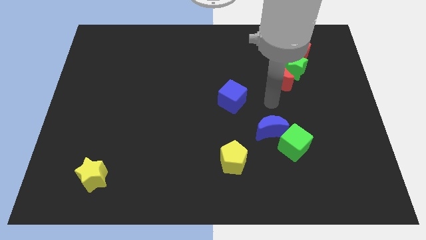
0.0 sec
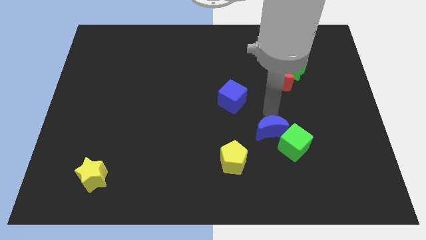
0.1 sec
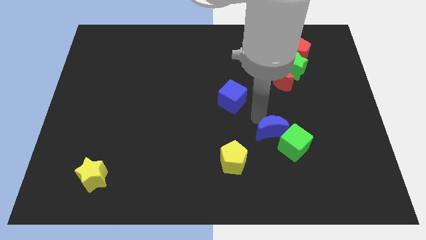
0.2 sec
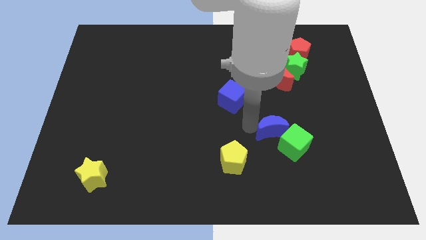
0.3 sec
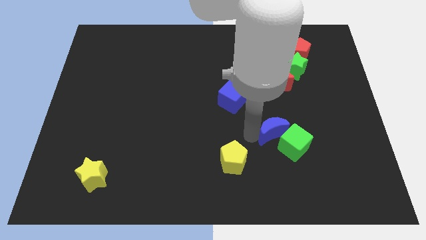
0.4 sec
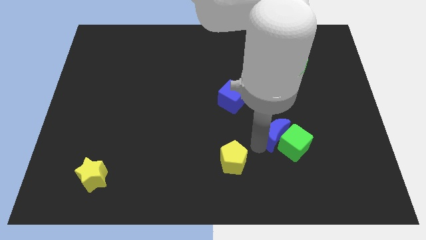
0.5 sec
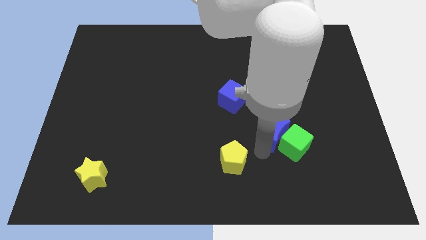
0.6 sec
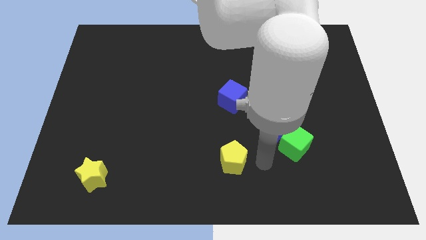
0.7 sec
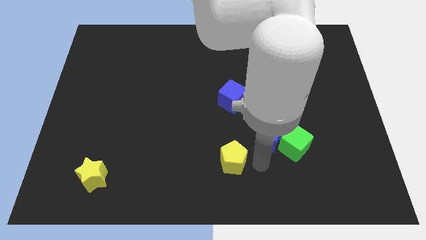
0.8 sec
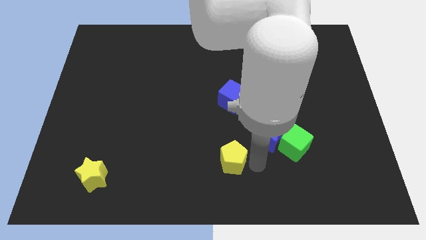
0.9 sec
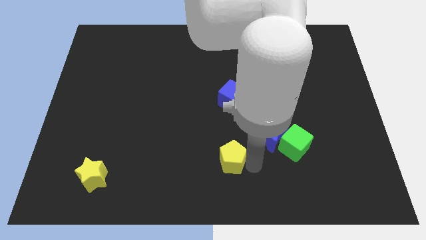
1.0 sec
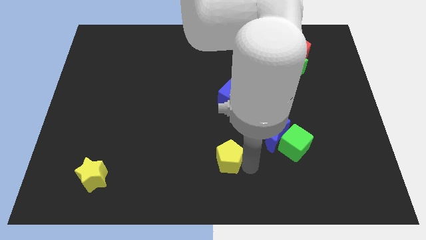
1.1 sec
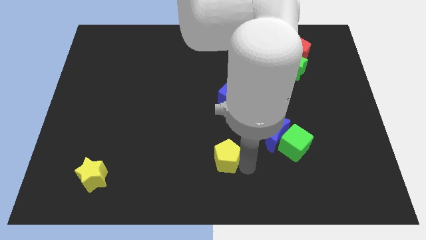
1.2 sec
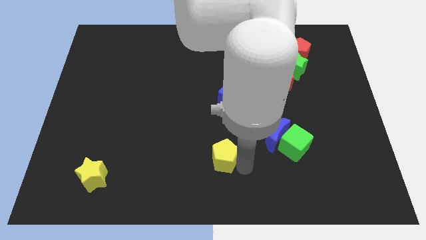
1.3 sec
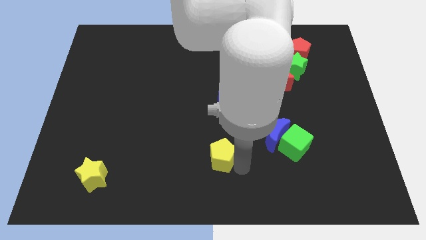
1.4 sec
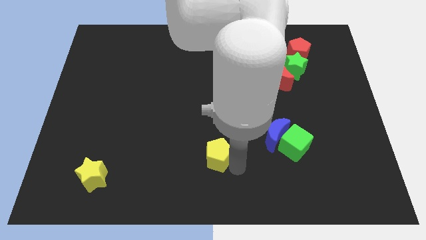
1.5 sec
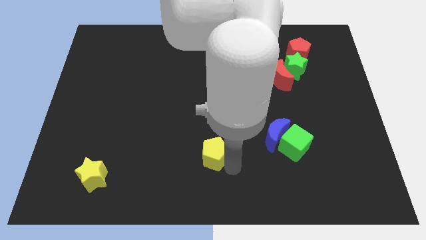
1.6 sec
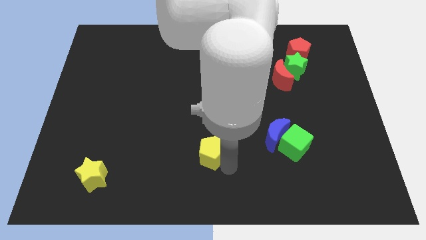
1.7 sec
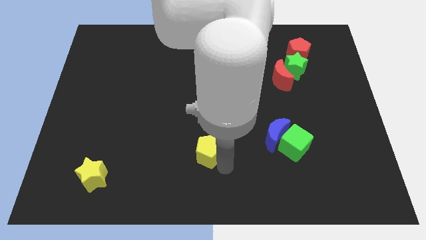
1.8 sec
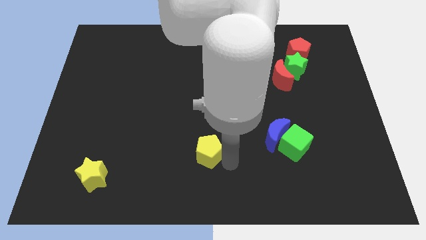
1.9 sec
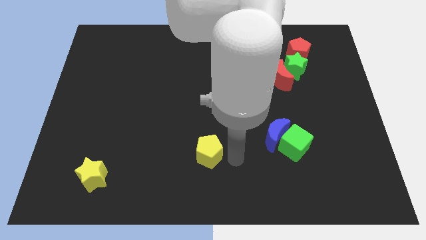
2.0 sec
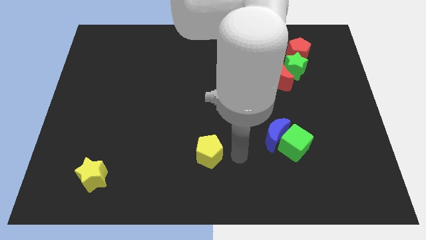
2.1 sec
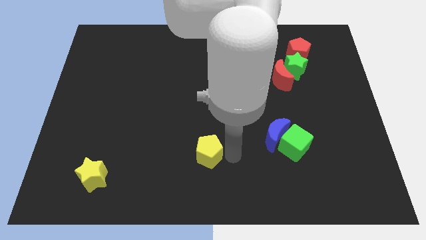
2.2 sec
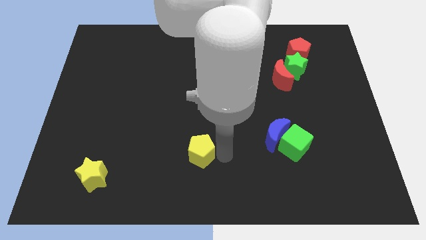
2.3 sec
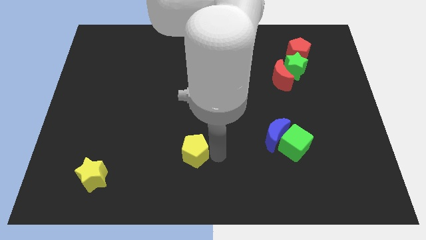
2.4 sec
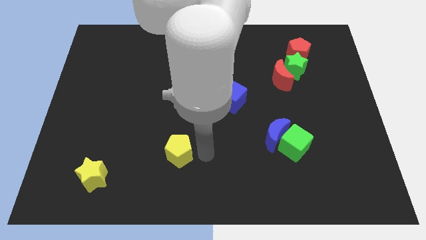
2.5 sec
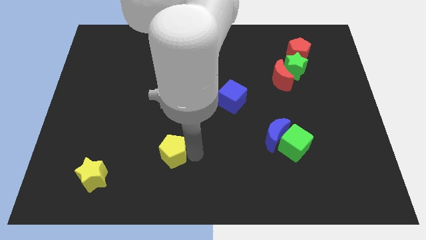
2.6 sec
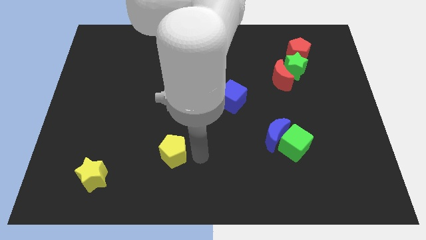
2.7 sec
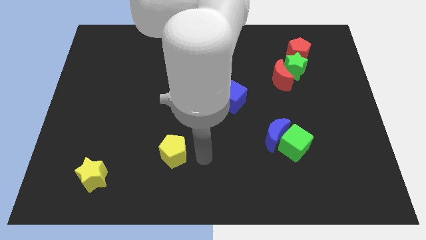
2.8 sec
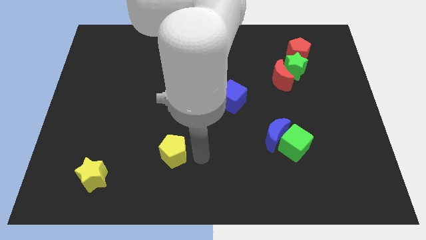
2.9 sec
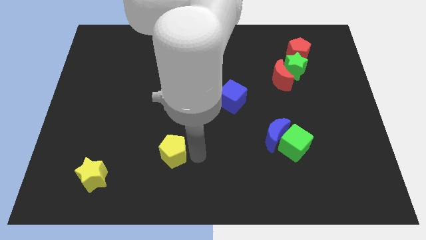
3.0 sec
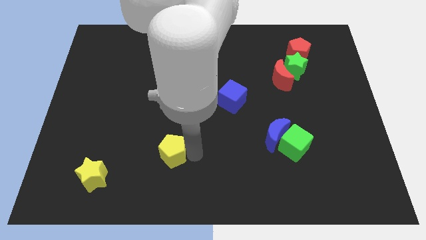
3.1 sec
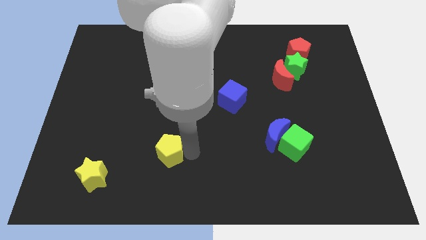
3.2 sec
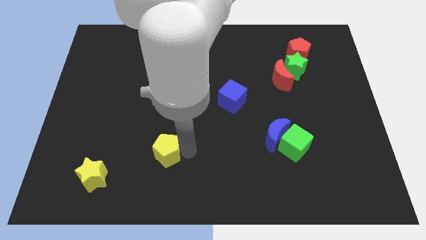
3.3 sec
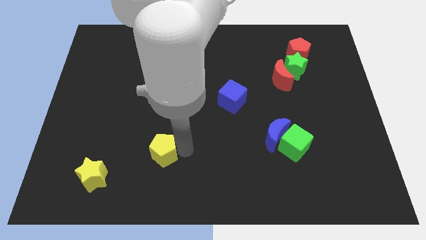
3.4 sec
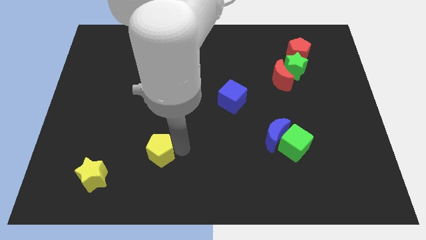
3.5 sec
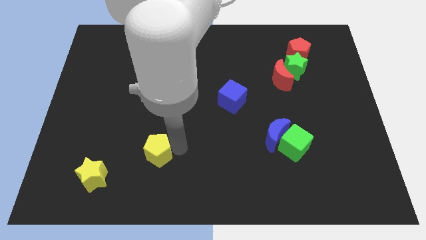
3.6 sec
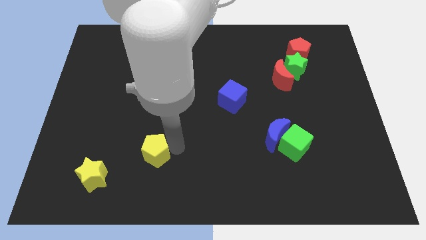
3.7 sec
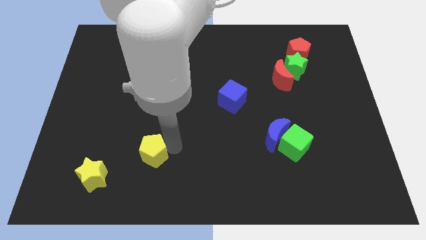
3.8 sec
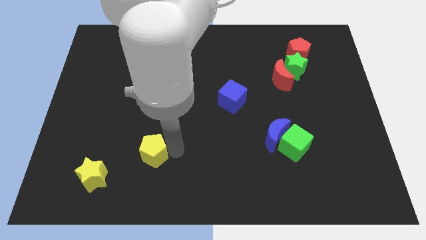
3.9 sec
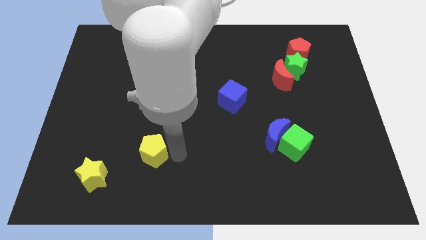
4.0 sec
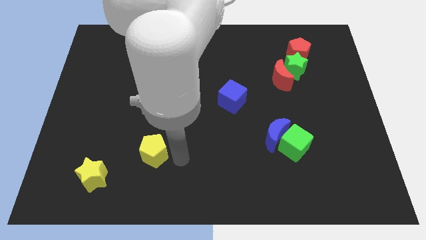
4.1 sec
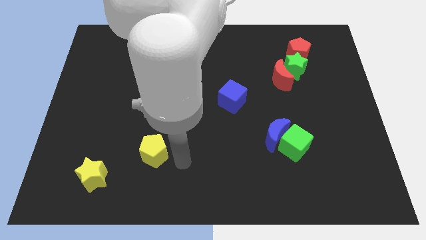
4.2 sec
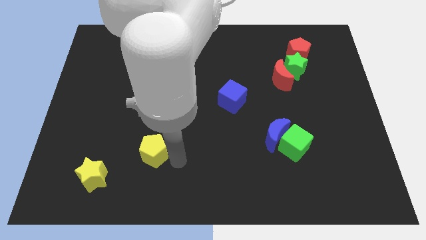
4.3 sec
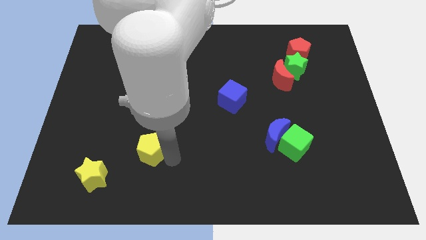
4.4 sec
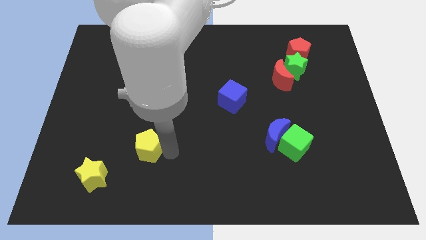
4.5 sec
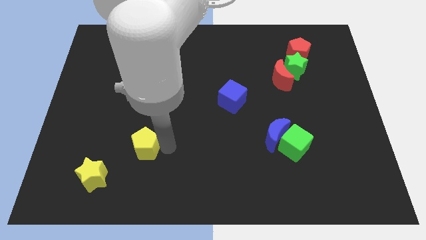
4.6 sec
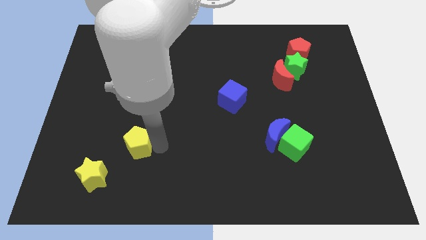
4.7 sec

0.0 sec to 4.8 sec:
slide the yellow pentagon left

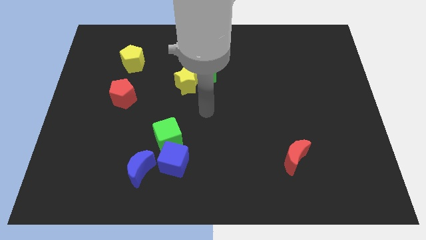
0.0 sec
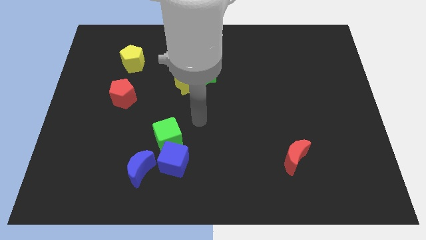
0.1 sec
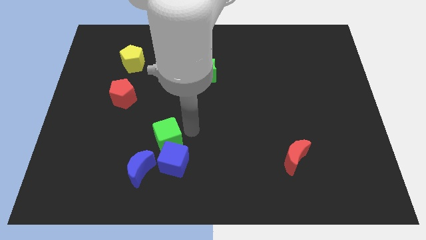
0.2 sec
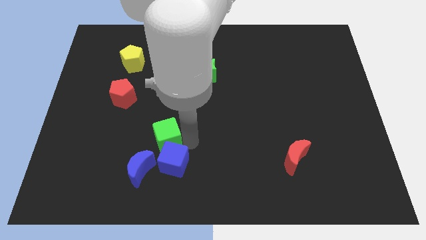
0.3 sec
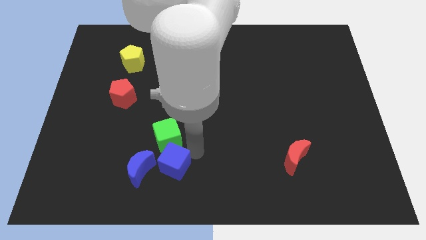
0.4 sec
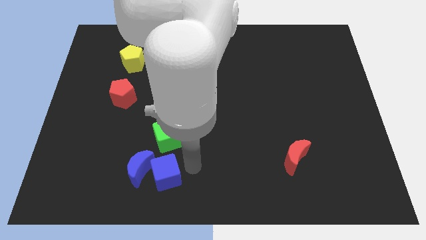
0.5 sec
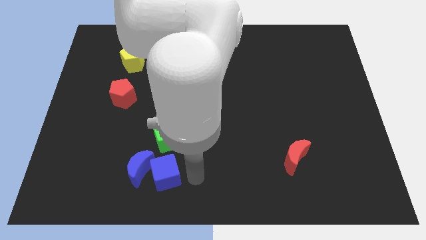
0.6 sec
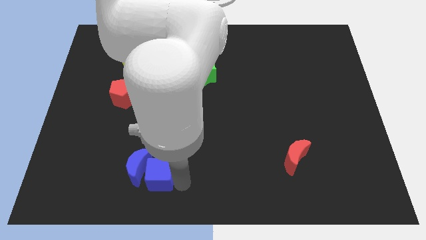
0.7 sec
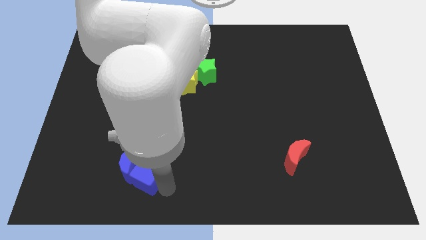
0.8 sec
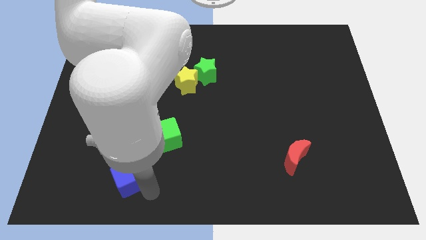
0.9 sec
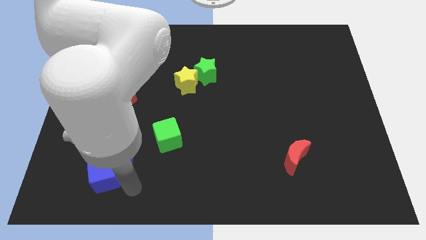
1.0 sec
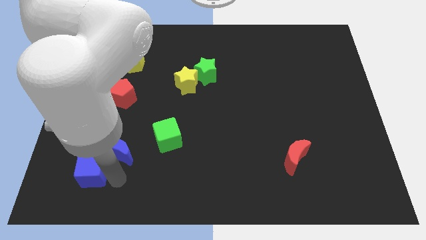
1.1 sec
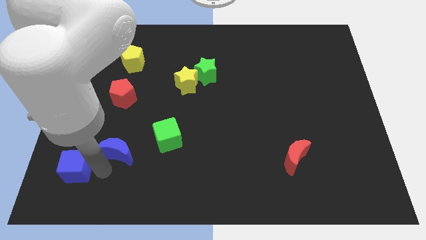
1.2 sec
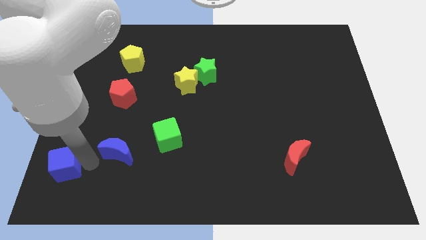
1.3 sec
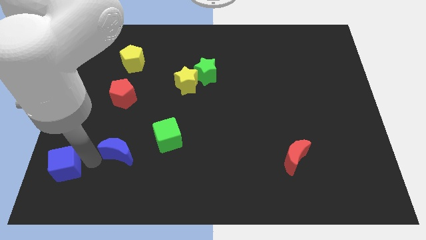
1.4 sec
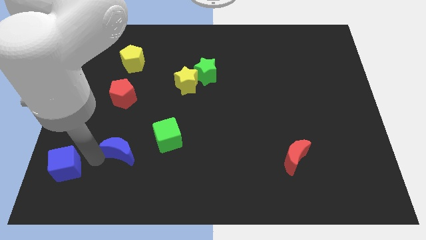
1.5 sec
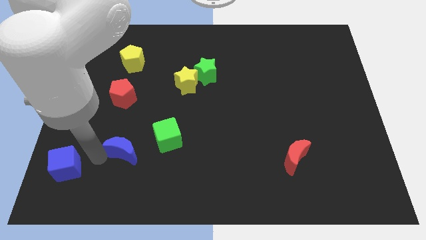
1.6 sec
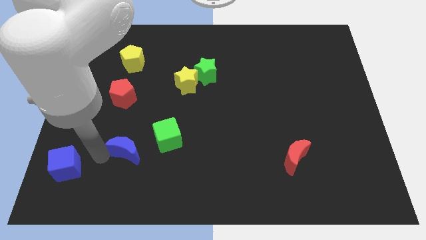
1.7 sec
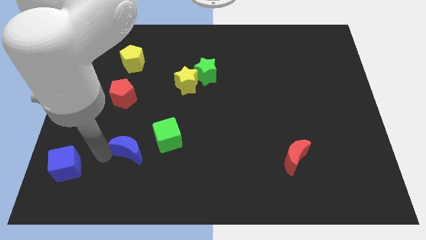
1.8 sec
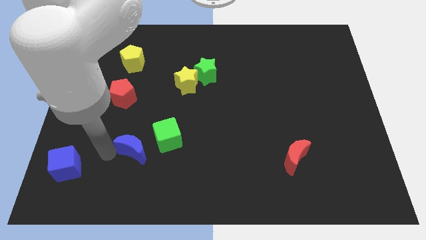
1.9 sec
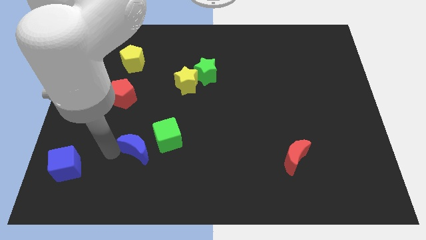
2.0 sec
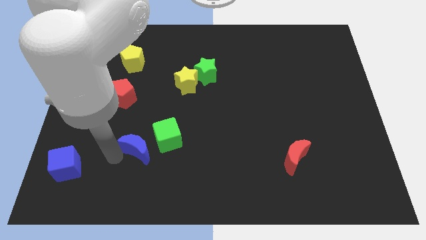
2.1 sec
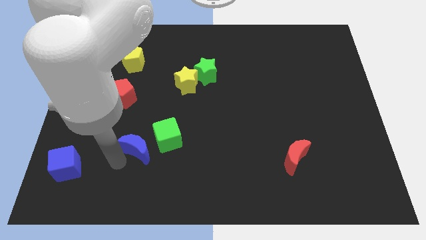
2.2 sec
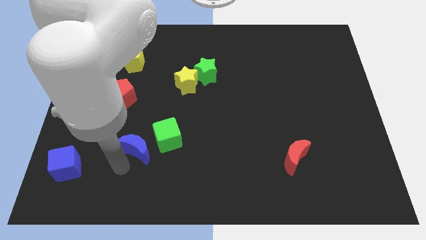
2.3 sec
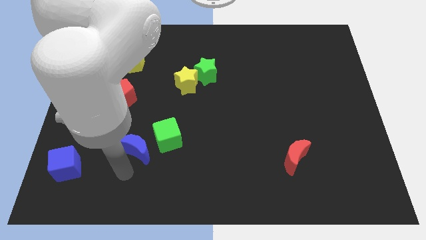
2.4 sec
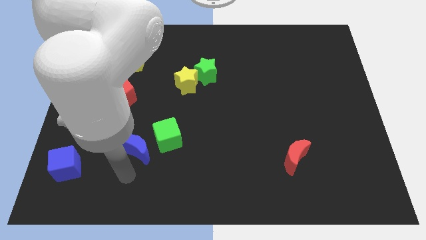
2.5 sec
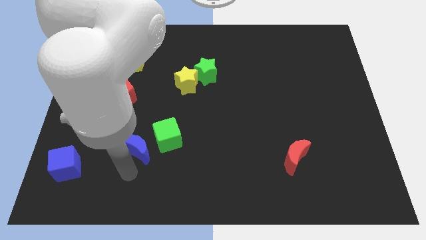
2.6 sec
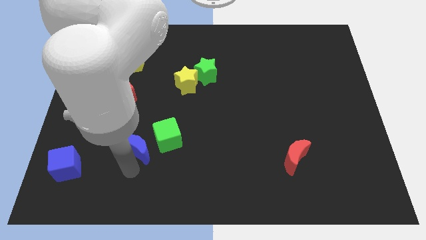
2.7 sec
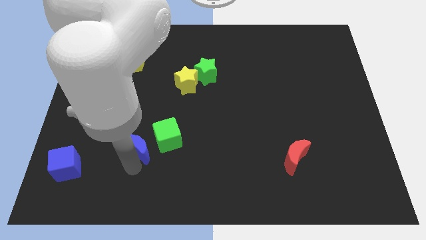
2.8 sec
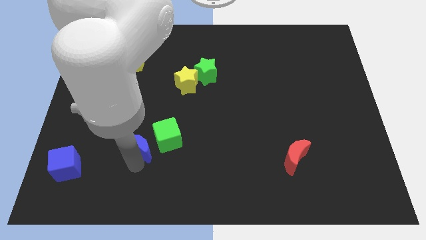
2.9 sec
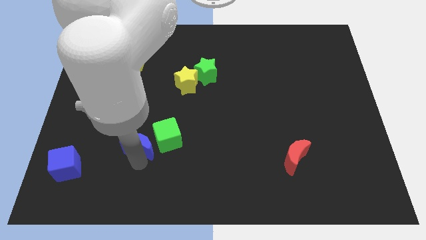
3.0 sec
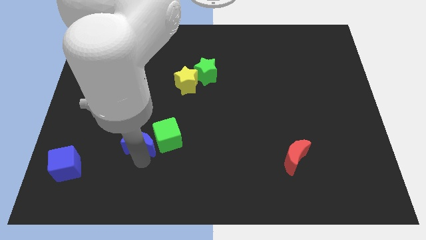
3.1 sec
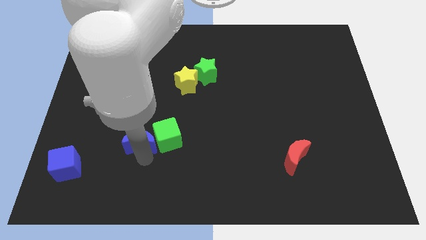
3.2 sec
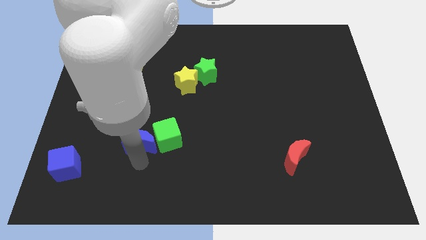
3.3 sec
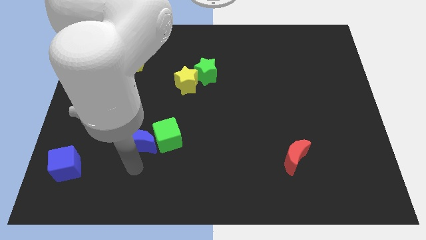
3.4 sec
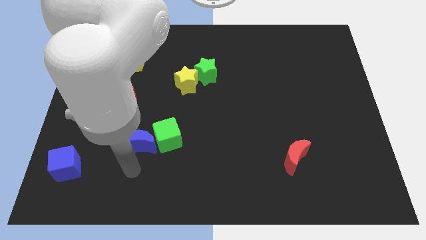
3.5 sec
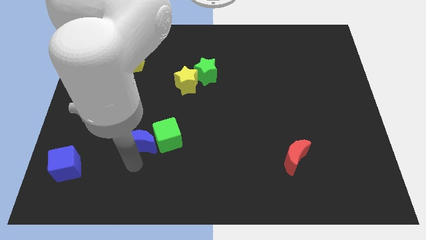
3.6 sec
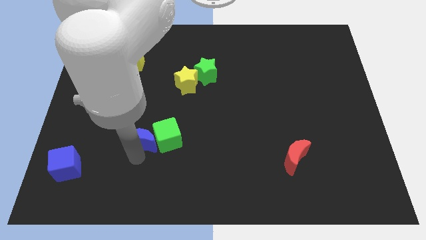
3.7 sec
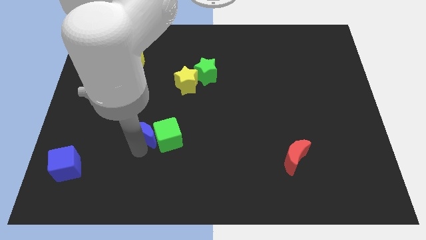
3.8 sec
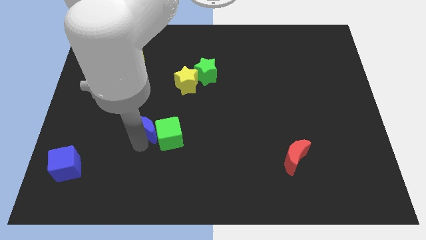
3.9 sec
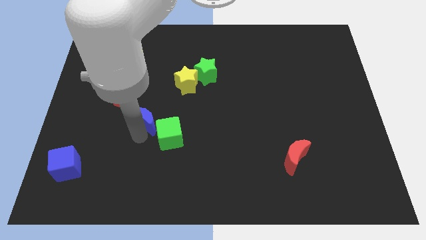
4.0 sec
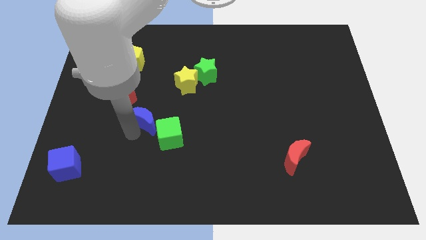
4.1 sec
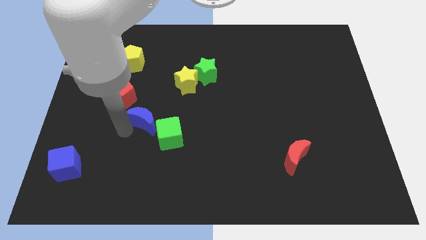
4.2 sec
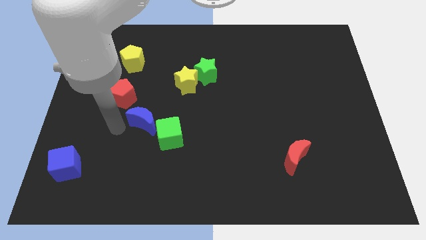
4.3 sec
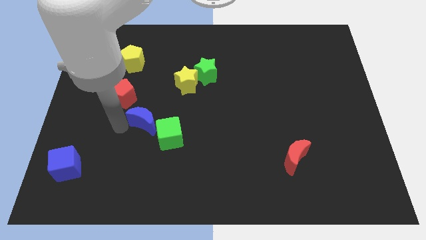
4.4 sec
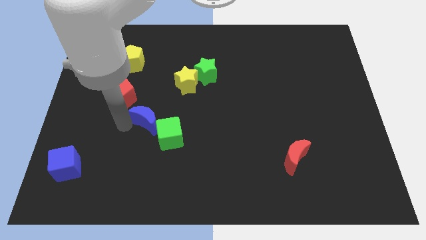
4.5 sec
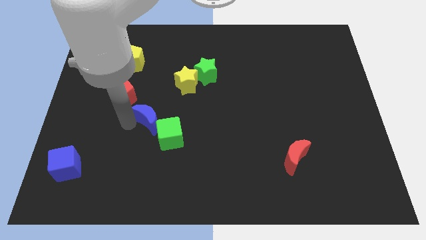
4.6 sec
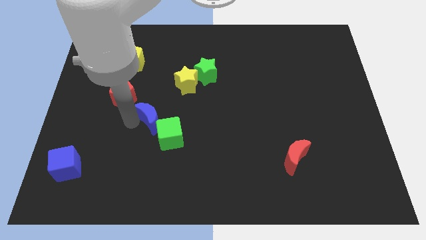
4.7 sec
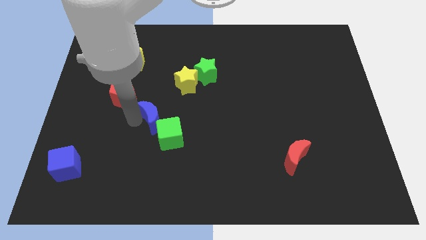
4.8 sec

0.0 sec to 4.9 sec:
move the blue moon a bit up and right
